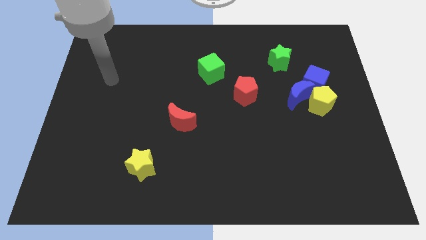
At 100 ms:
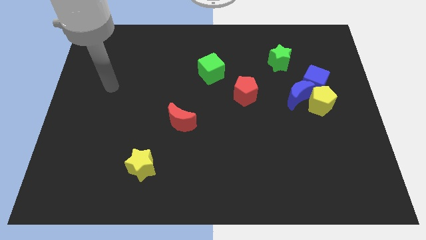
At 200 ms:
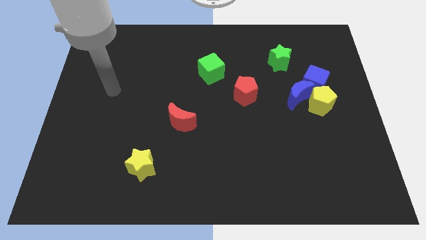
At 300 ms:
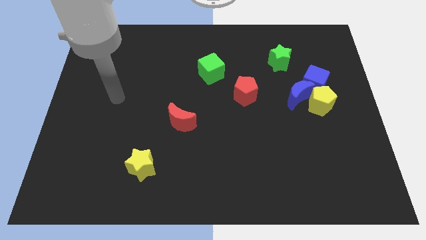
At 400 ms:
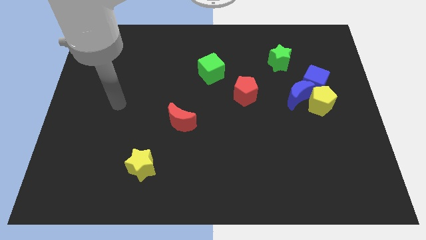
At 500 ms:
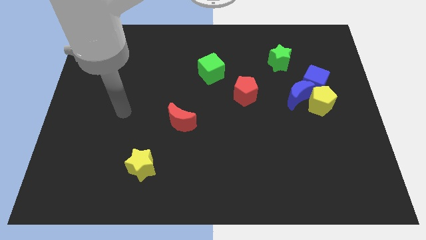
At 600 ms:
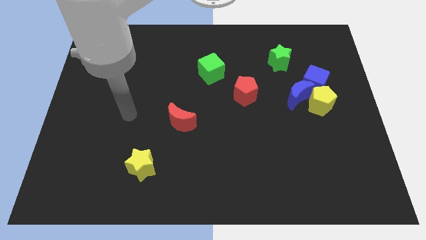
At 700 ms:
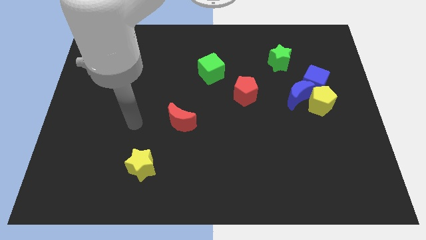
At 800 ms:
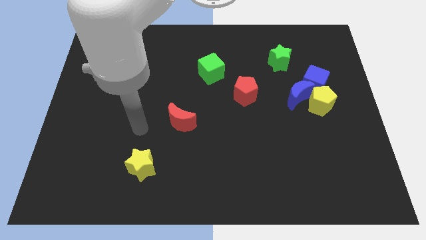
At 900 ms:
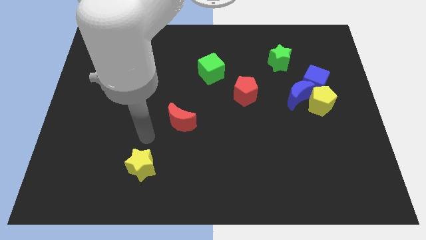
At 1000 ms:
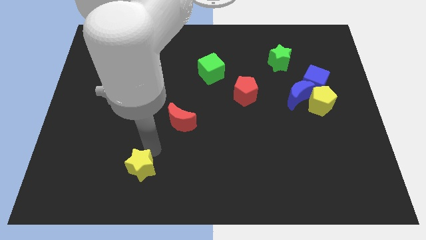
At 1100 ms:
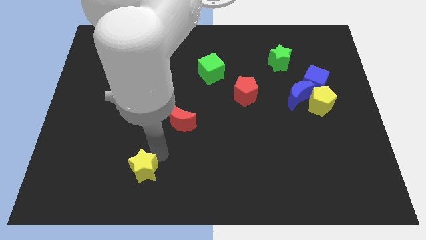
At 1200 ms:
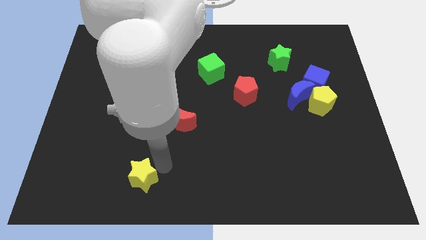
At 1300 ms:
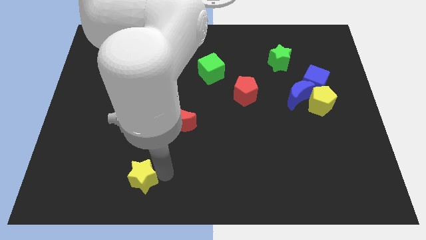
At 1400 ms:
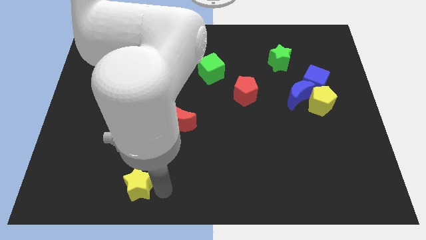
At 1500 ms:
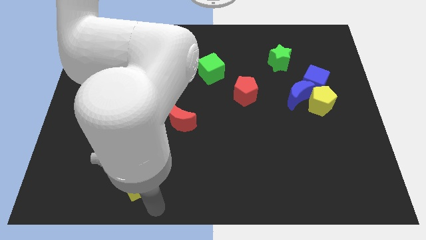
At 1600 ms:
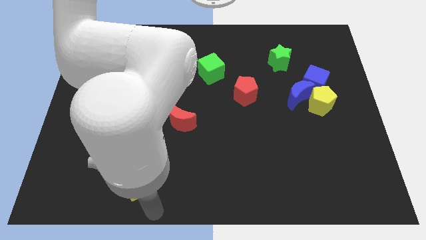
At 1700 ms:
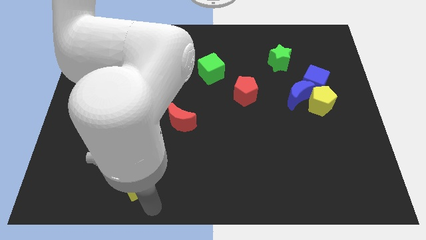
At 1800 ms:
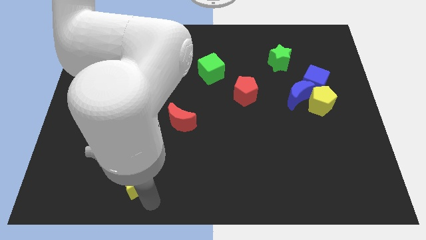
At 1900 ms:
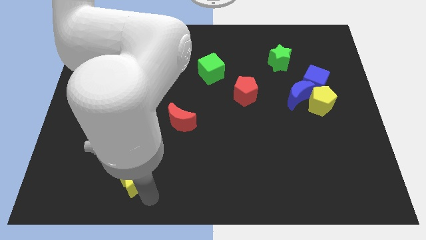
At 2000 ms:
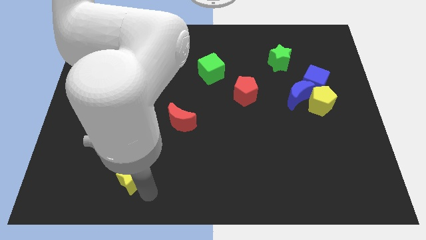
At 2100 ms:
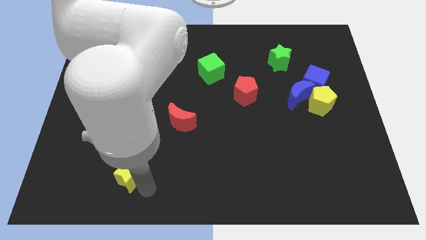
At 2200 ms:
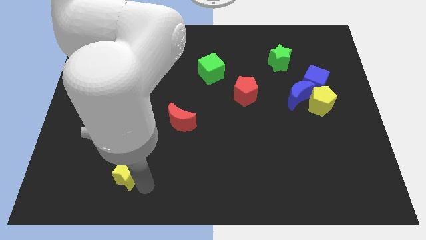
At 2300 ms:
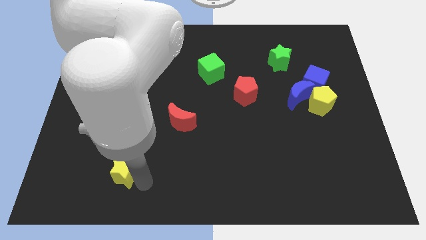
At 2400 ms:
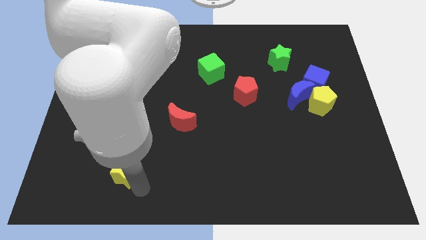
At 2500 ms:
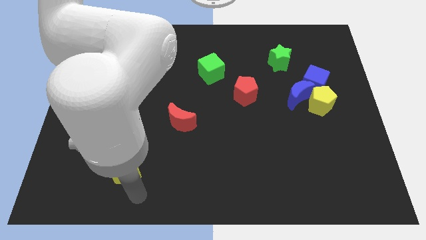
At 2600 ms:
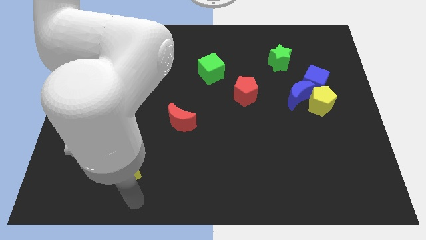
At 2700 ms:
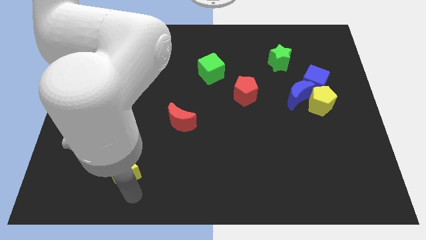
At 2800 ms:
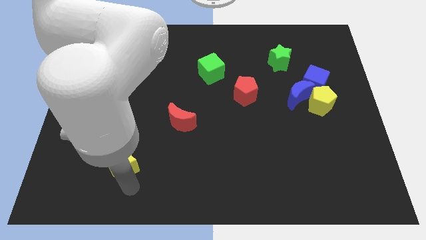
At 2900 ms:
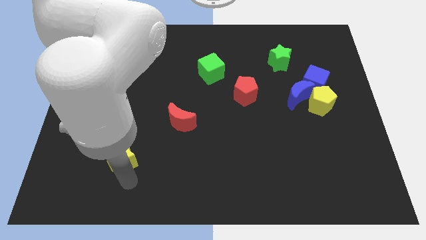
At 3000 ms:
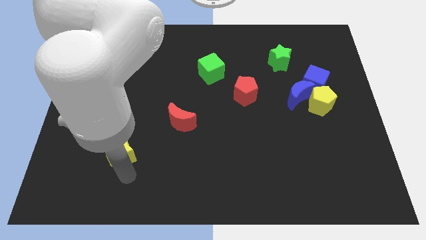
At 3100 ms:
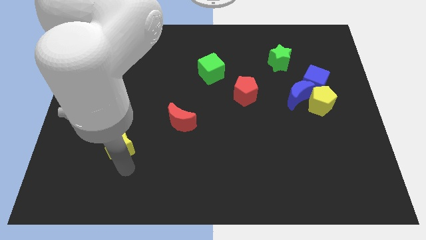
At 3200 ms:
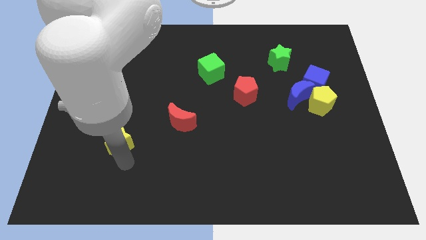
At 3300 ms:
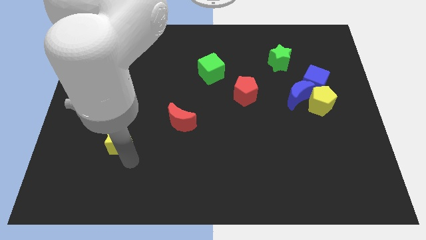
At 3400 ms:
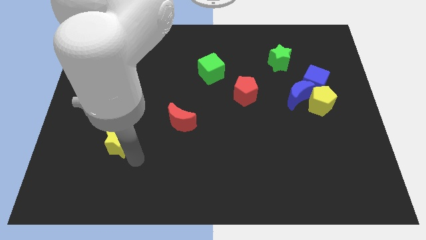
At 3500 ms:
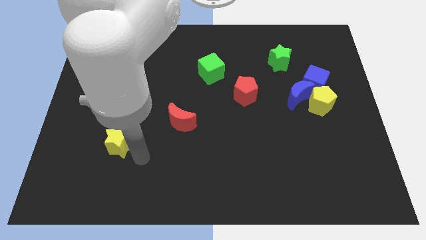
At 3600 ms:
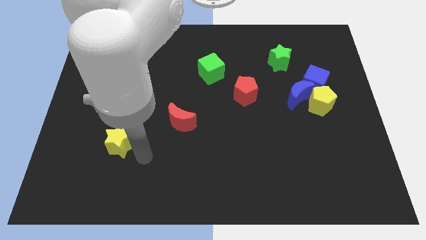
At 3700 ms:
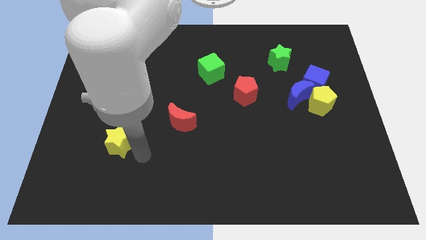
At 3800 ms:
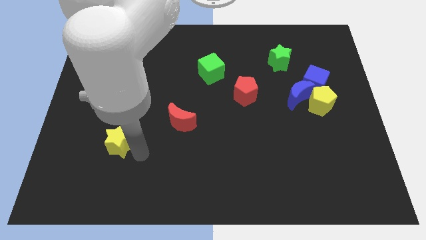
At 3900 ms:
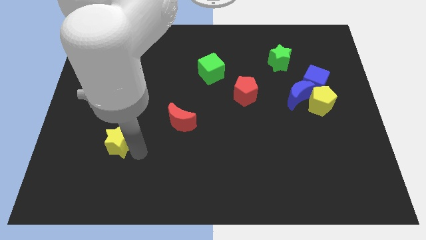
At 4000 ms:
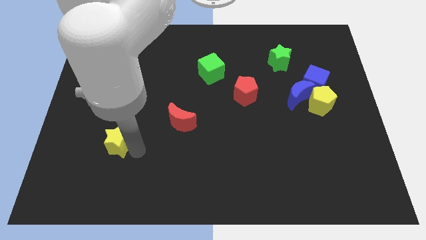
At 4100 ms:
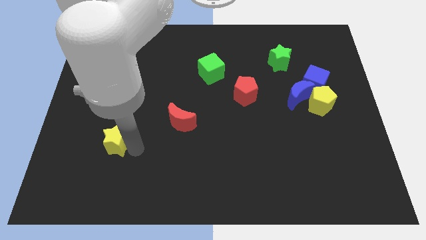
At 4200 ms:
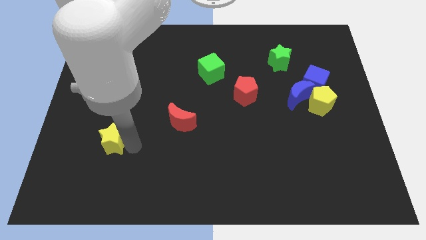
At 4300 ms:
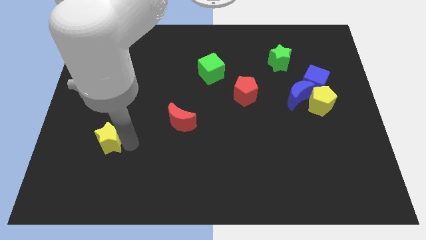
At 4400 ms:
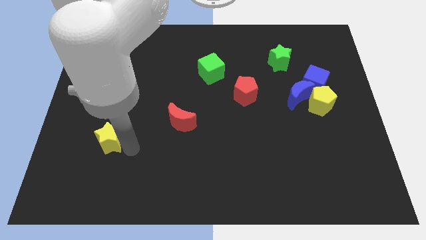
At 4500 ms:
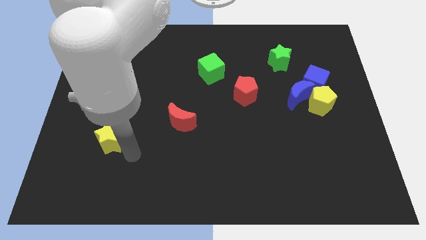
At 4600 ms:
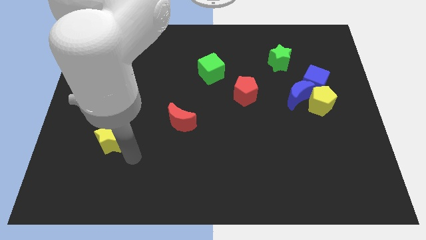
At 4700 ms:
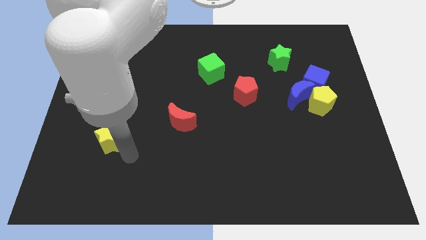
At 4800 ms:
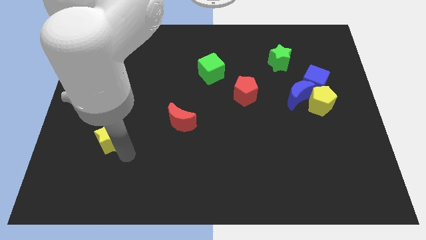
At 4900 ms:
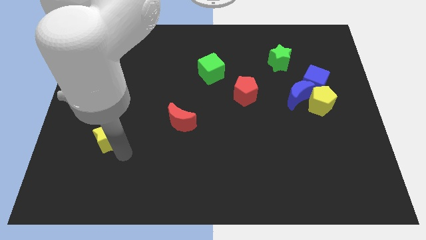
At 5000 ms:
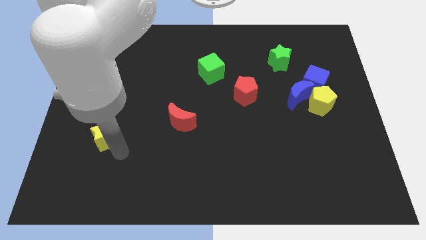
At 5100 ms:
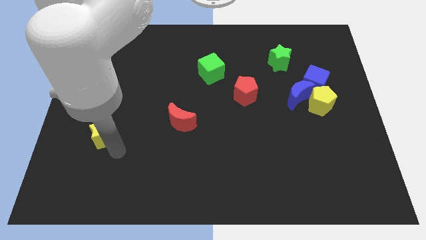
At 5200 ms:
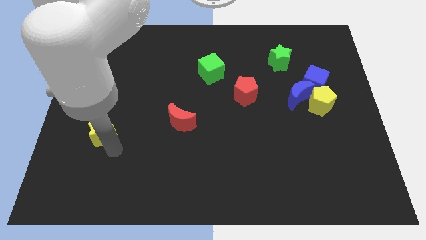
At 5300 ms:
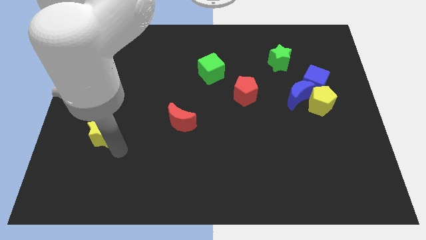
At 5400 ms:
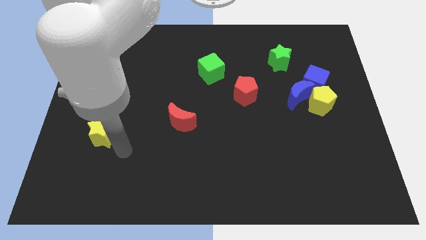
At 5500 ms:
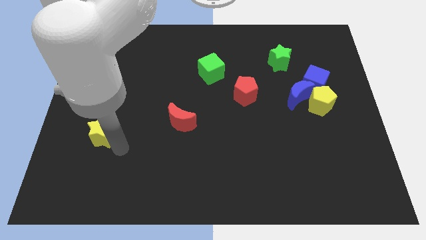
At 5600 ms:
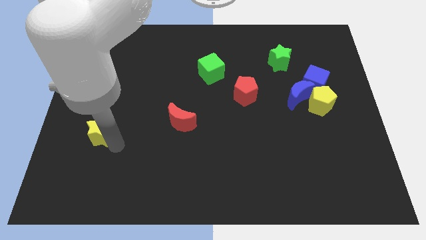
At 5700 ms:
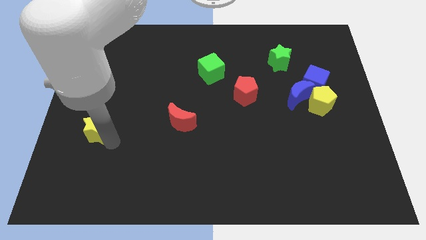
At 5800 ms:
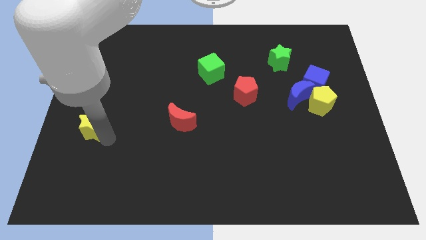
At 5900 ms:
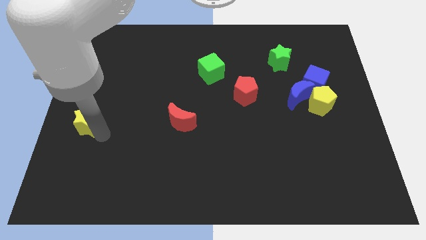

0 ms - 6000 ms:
move the yellow star to the left side of the board

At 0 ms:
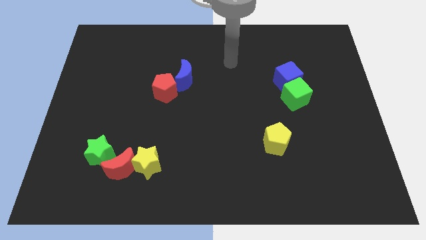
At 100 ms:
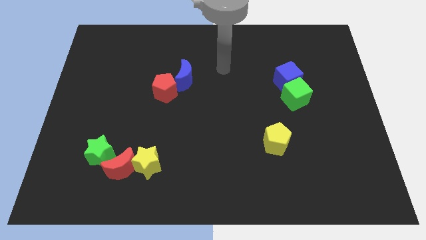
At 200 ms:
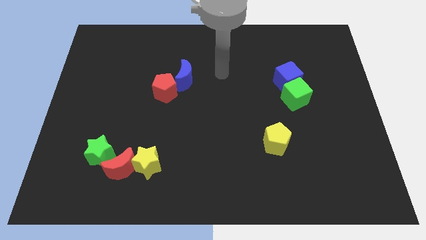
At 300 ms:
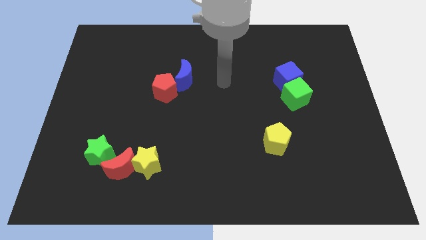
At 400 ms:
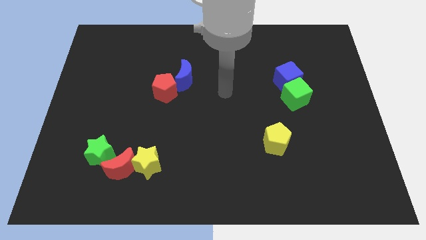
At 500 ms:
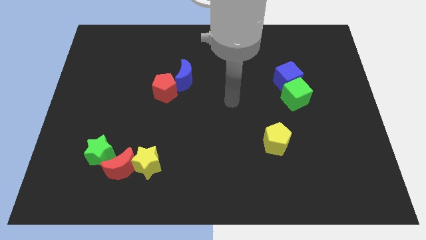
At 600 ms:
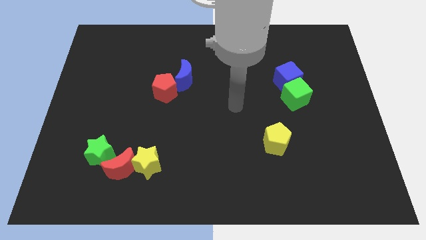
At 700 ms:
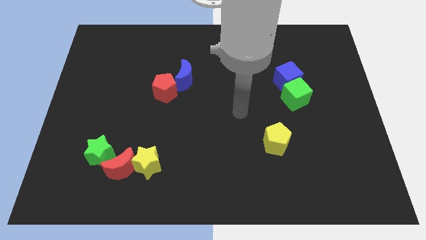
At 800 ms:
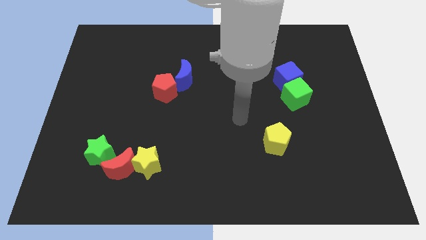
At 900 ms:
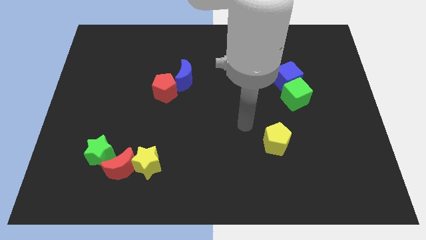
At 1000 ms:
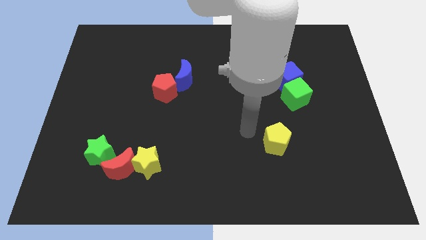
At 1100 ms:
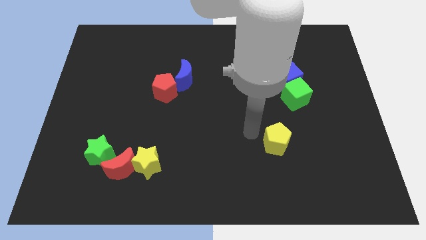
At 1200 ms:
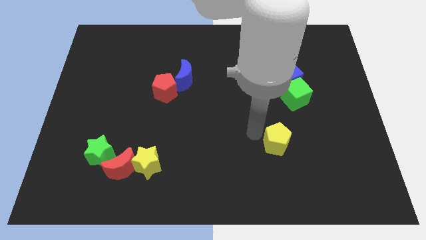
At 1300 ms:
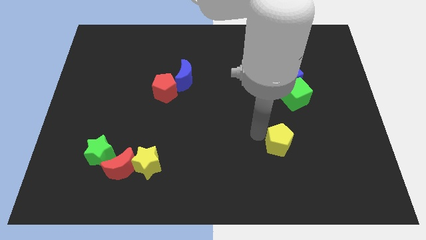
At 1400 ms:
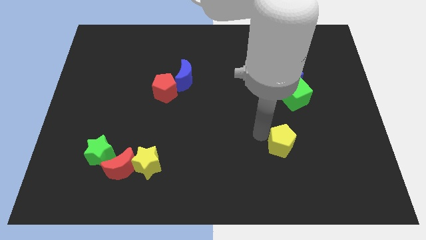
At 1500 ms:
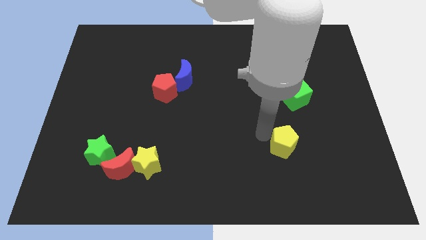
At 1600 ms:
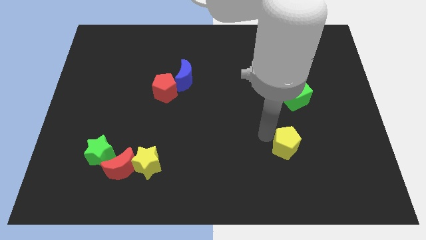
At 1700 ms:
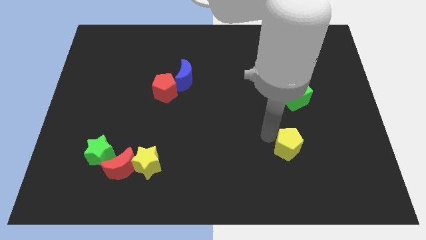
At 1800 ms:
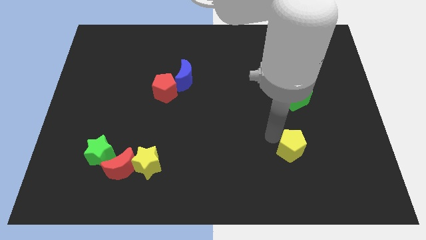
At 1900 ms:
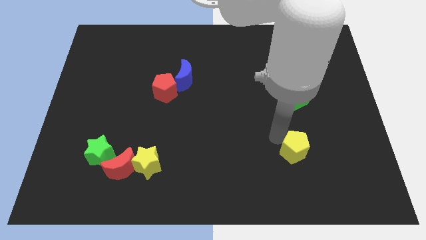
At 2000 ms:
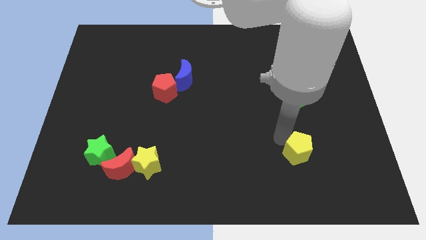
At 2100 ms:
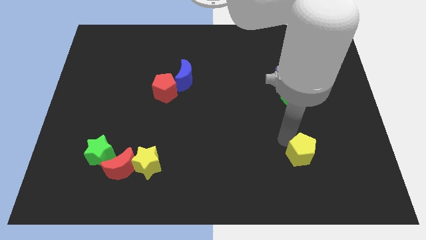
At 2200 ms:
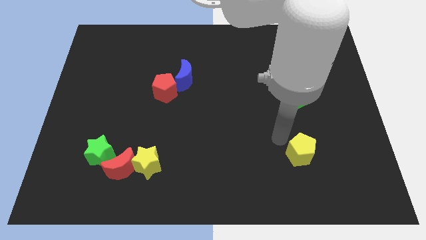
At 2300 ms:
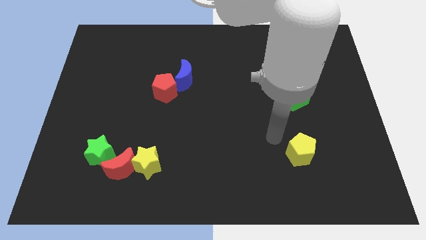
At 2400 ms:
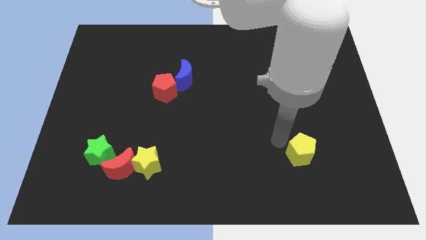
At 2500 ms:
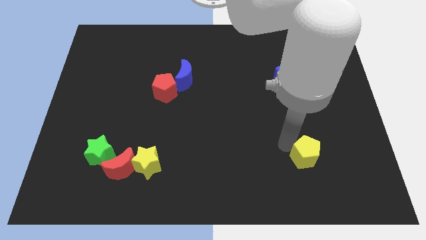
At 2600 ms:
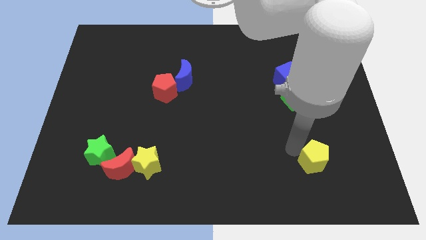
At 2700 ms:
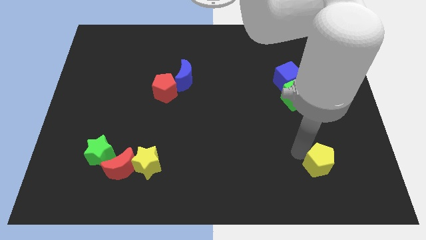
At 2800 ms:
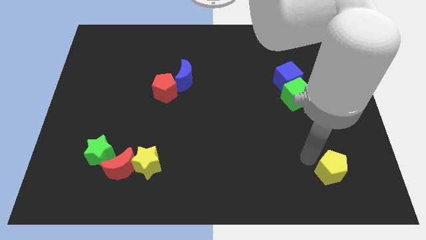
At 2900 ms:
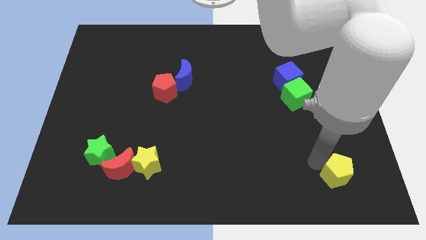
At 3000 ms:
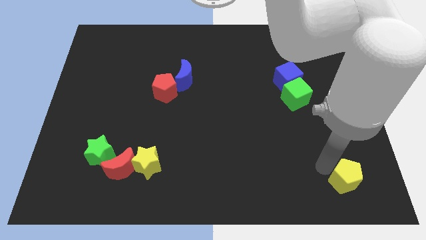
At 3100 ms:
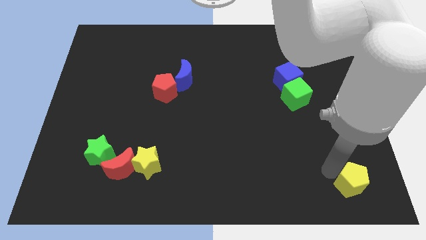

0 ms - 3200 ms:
put the yellow pentagon to the bottom right corner
